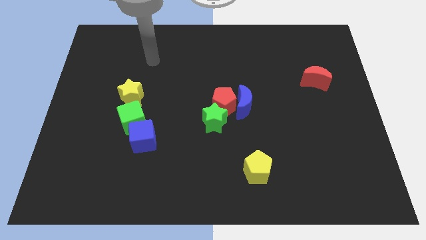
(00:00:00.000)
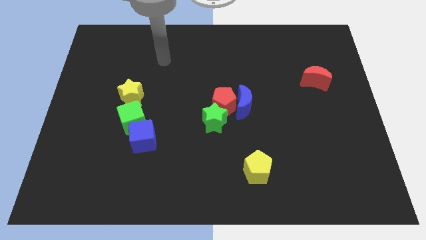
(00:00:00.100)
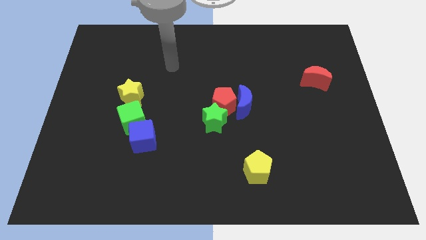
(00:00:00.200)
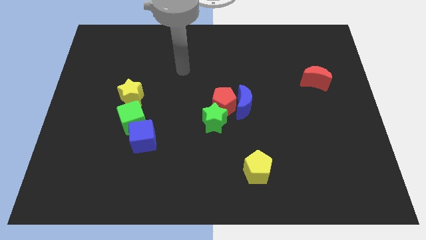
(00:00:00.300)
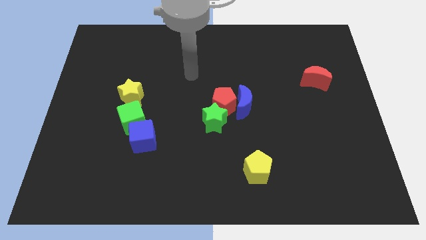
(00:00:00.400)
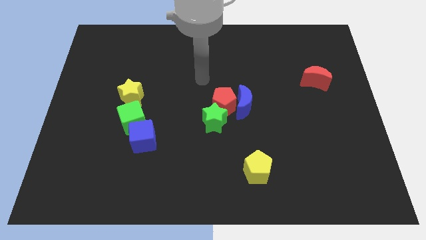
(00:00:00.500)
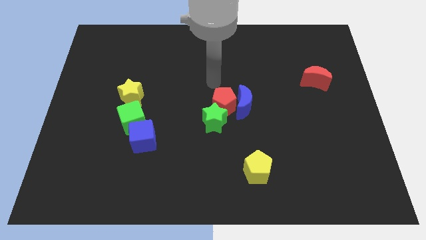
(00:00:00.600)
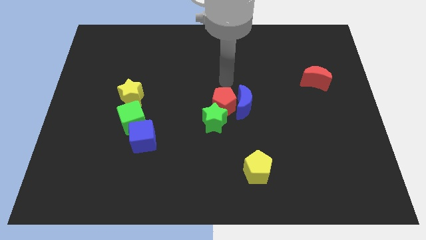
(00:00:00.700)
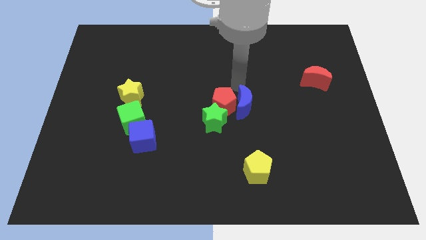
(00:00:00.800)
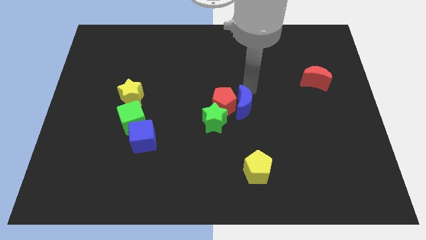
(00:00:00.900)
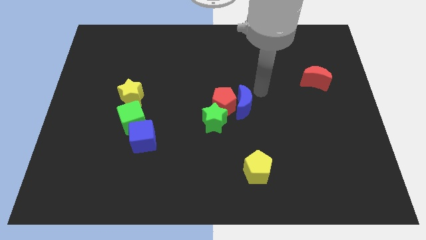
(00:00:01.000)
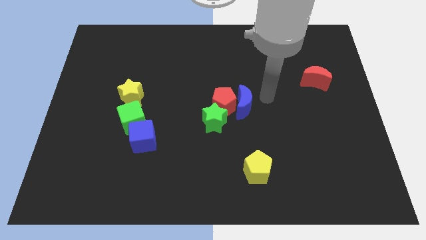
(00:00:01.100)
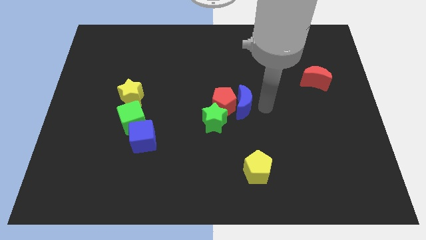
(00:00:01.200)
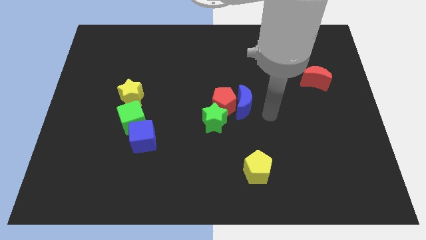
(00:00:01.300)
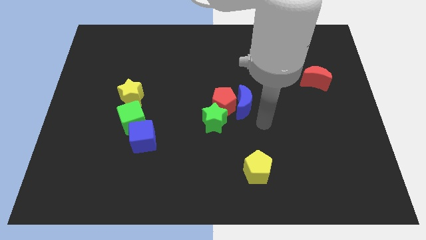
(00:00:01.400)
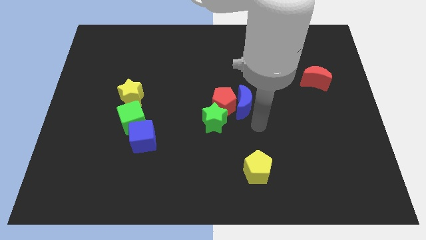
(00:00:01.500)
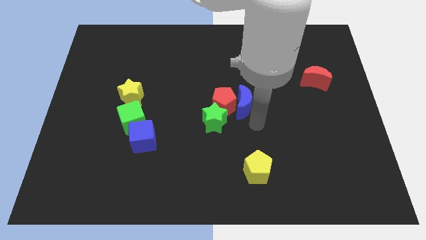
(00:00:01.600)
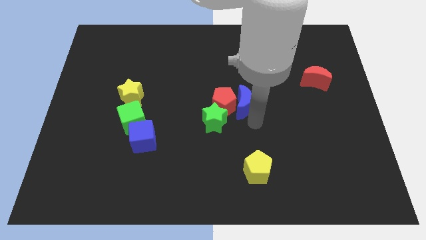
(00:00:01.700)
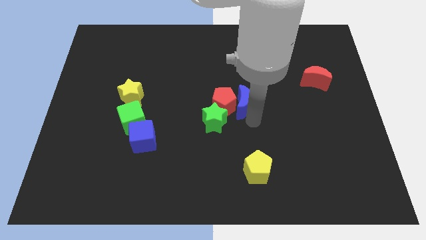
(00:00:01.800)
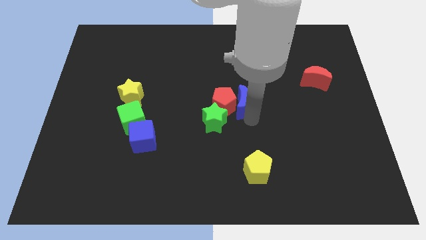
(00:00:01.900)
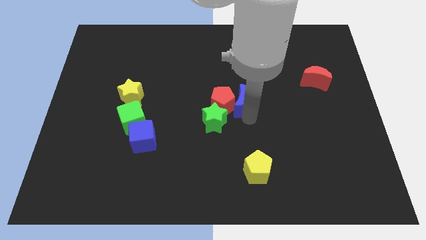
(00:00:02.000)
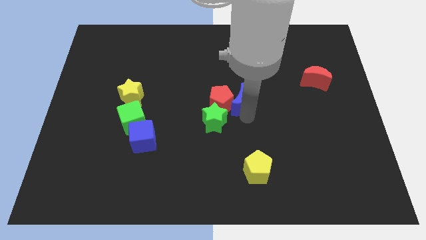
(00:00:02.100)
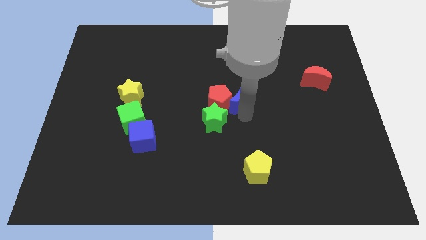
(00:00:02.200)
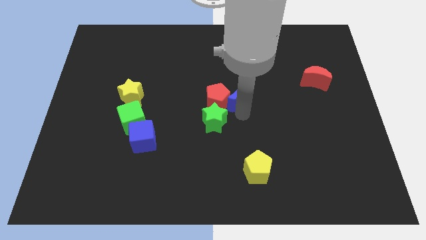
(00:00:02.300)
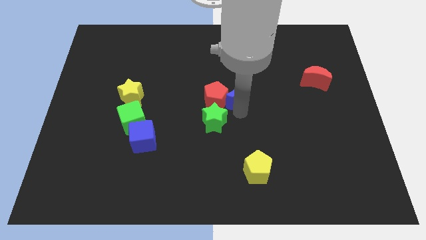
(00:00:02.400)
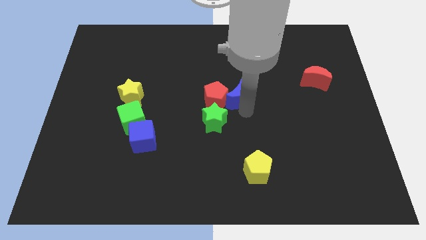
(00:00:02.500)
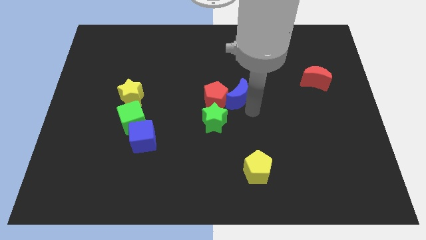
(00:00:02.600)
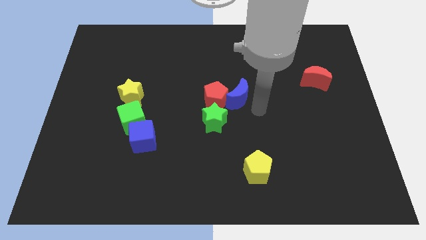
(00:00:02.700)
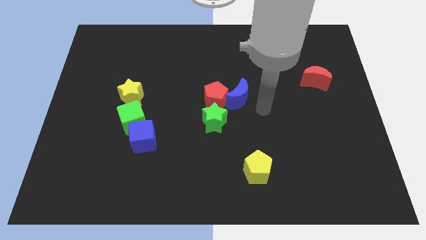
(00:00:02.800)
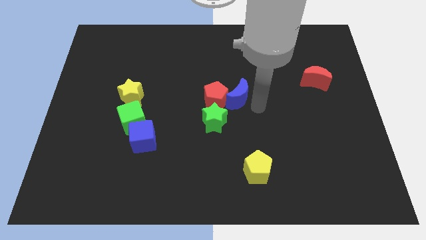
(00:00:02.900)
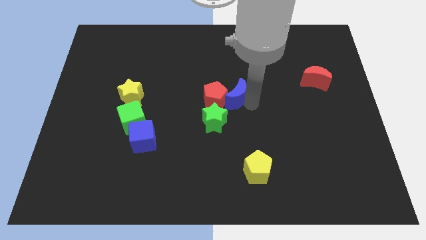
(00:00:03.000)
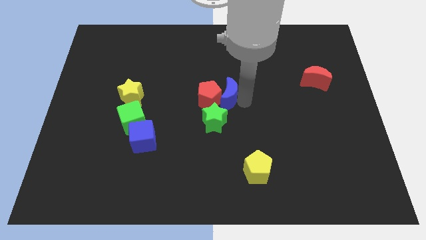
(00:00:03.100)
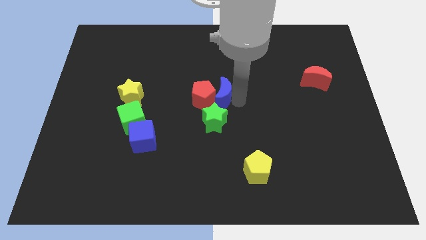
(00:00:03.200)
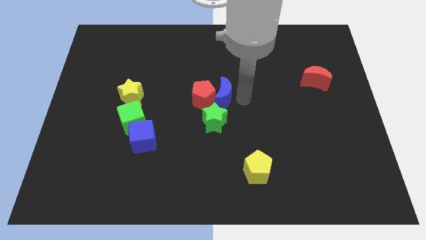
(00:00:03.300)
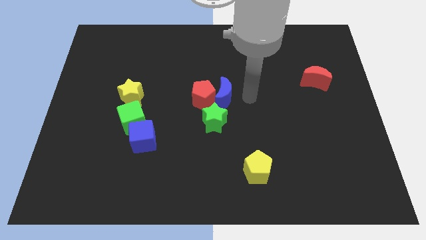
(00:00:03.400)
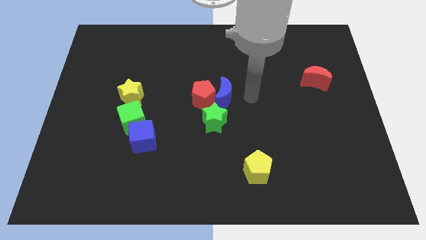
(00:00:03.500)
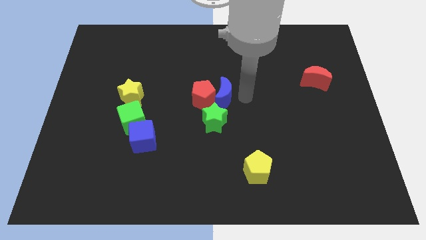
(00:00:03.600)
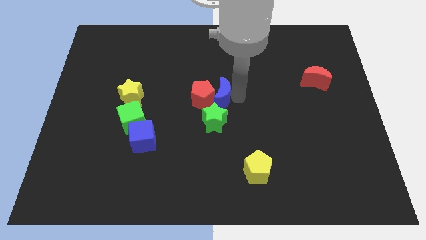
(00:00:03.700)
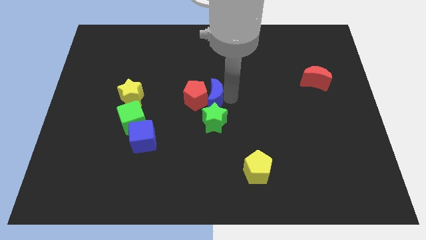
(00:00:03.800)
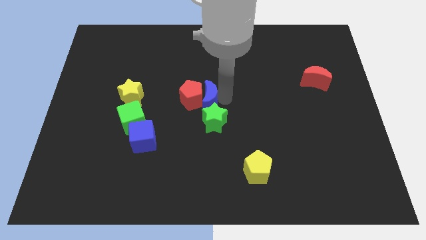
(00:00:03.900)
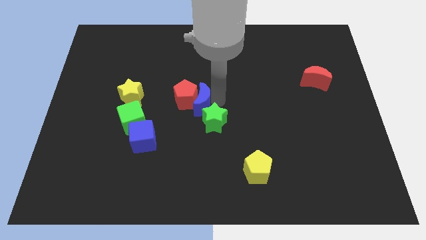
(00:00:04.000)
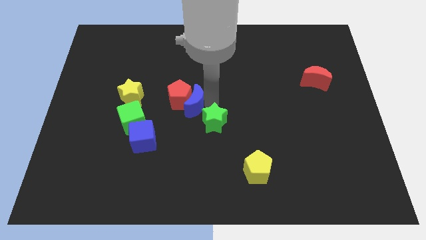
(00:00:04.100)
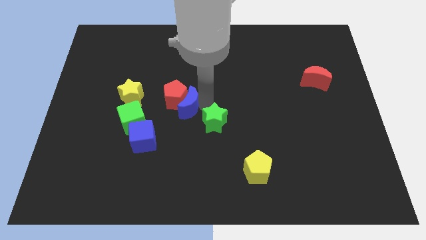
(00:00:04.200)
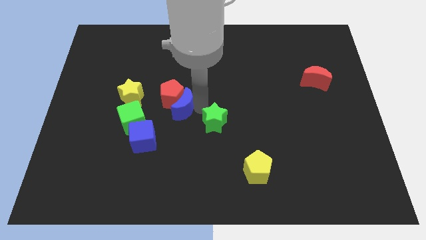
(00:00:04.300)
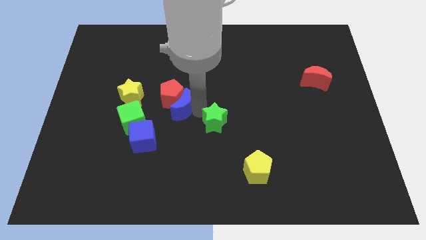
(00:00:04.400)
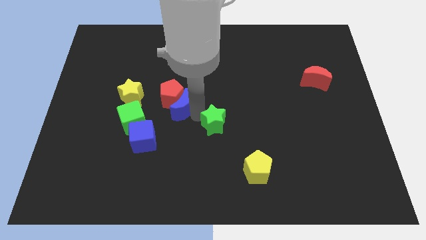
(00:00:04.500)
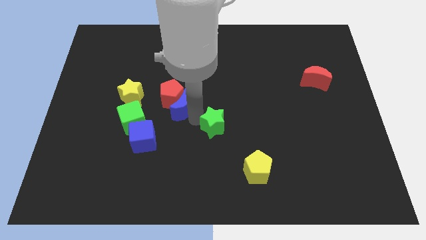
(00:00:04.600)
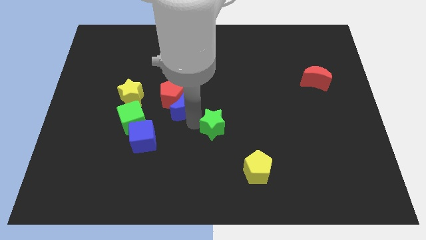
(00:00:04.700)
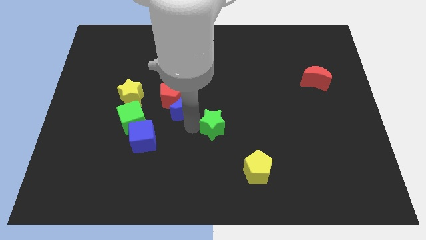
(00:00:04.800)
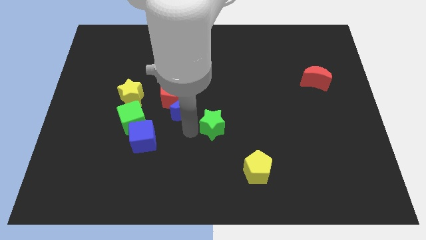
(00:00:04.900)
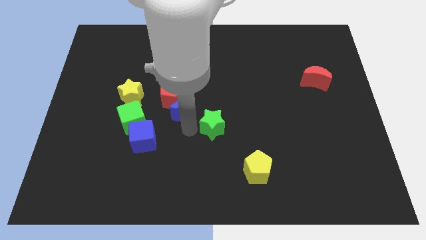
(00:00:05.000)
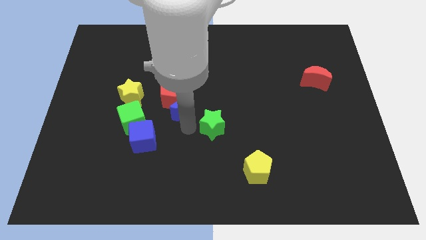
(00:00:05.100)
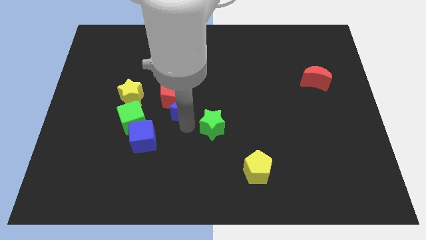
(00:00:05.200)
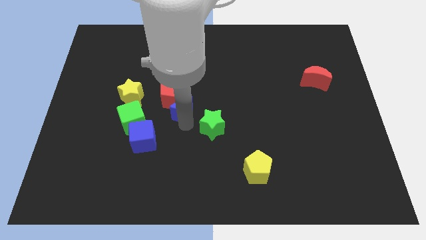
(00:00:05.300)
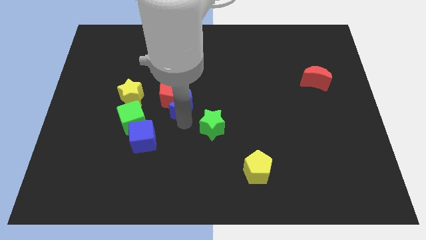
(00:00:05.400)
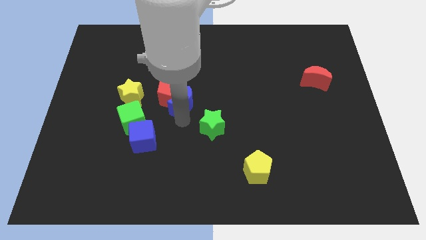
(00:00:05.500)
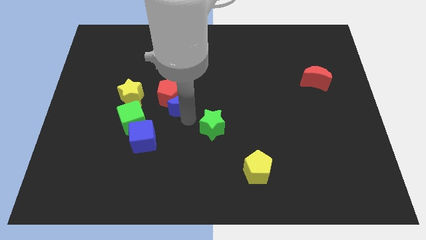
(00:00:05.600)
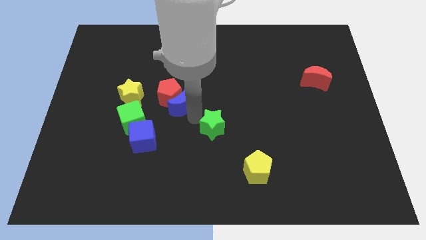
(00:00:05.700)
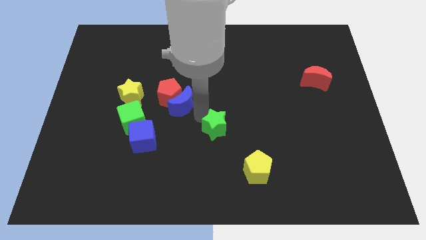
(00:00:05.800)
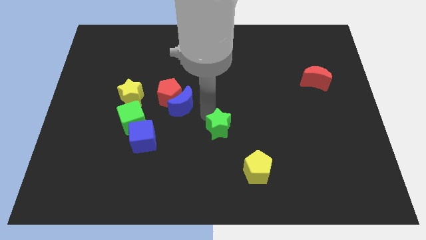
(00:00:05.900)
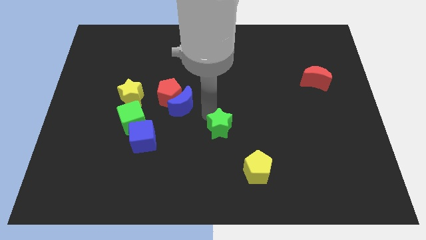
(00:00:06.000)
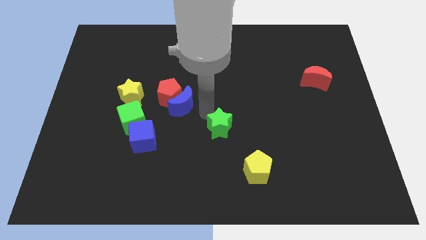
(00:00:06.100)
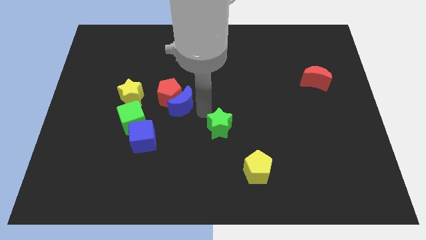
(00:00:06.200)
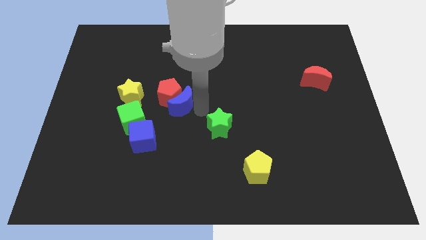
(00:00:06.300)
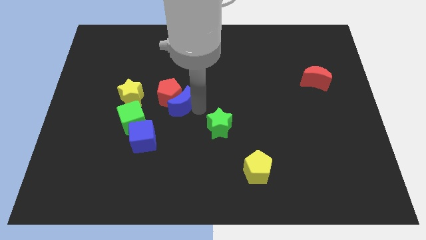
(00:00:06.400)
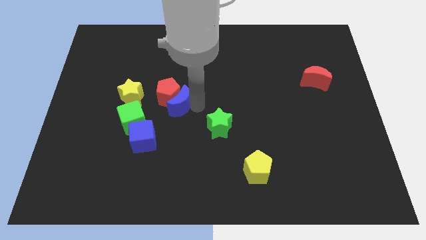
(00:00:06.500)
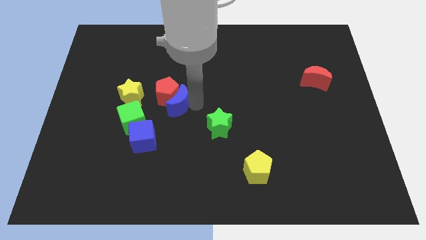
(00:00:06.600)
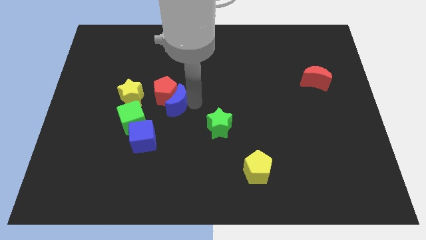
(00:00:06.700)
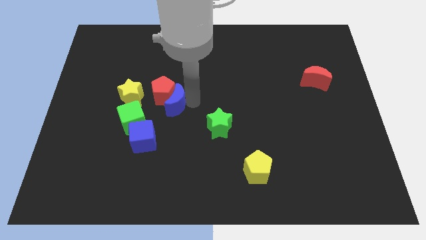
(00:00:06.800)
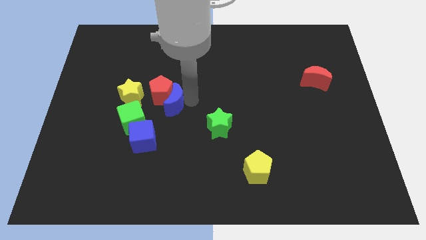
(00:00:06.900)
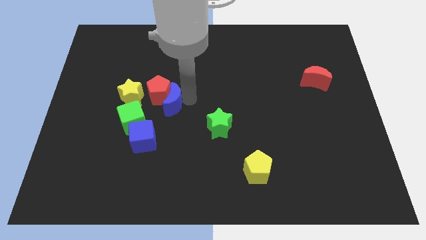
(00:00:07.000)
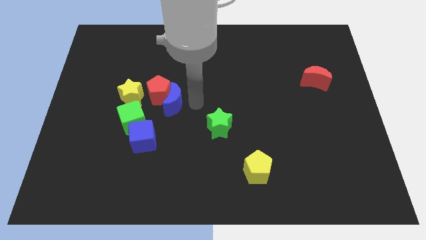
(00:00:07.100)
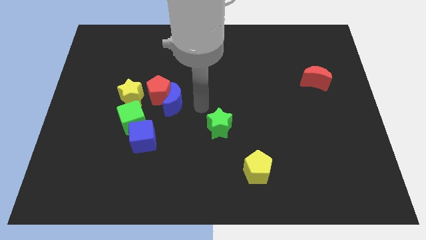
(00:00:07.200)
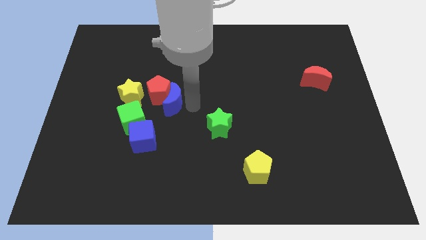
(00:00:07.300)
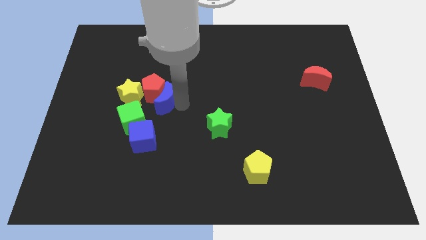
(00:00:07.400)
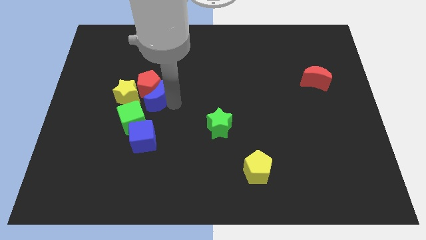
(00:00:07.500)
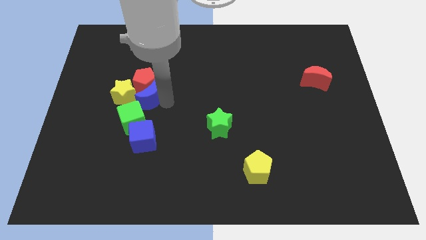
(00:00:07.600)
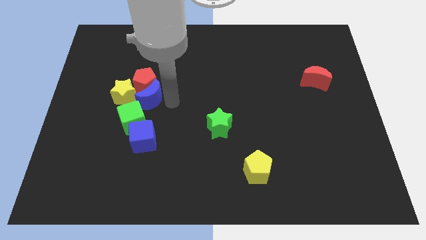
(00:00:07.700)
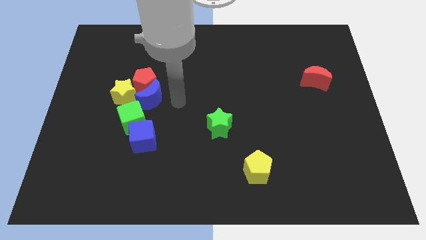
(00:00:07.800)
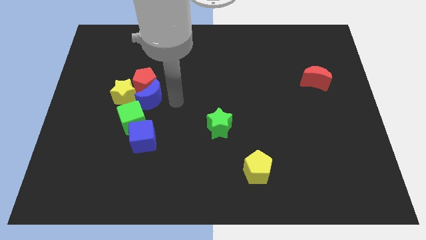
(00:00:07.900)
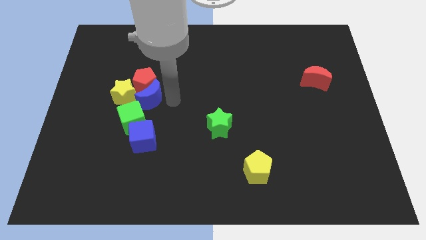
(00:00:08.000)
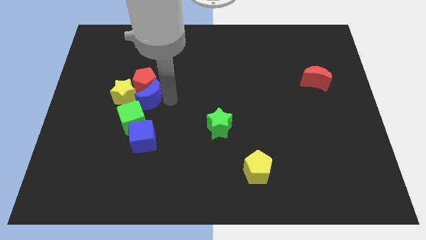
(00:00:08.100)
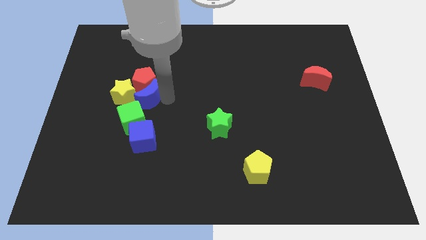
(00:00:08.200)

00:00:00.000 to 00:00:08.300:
slide the blue moon next to the yellow star
